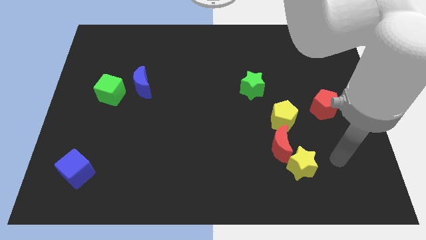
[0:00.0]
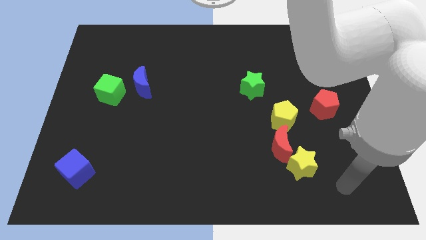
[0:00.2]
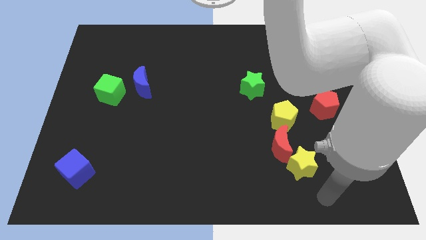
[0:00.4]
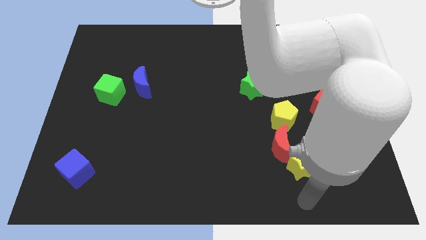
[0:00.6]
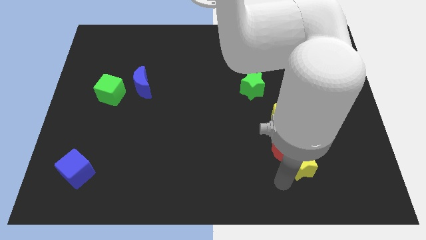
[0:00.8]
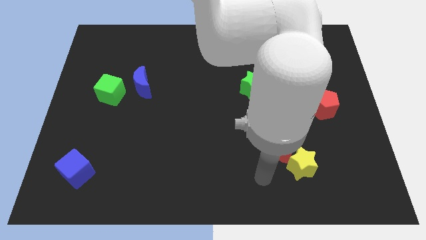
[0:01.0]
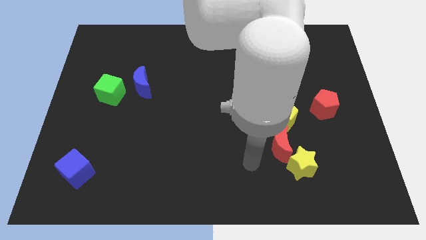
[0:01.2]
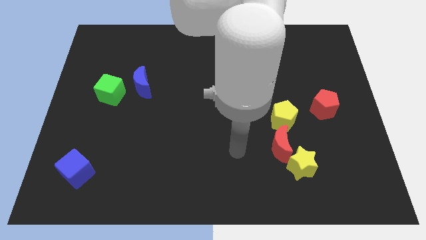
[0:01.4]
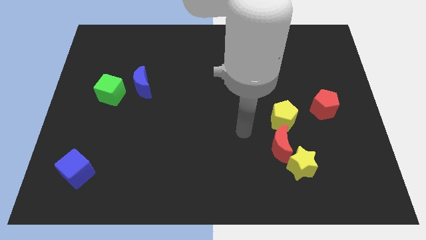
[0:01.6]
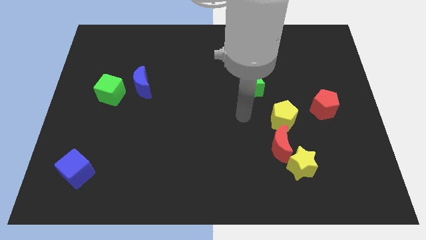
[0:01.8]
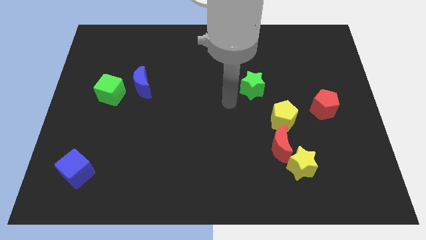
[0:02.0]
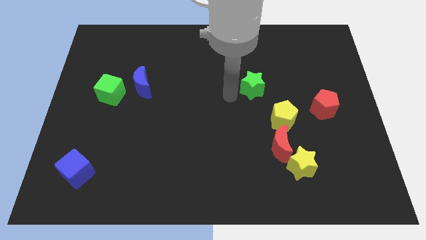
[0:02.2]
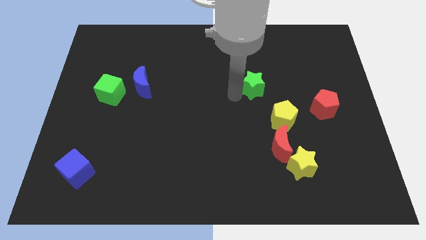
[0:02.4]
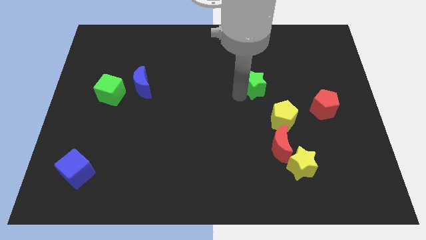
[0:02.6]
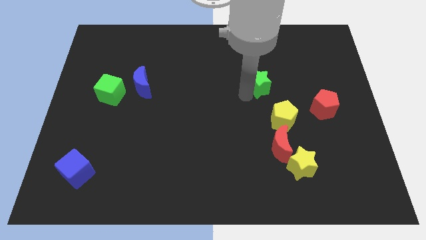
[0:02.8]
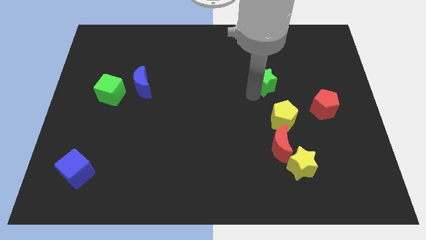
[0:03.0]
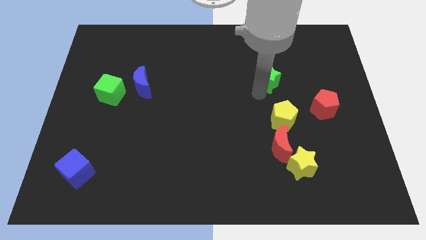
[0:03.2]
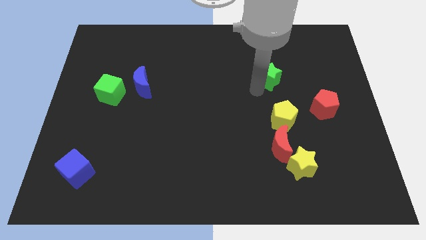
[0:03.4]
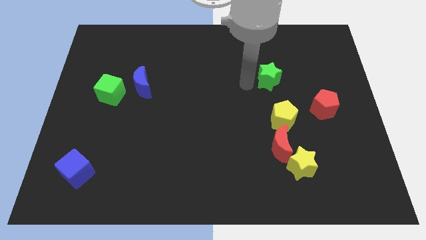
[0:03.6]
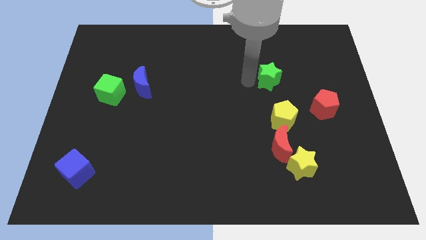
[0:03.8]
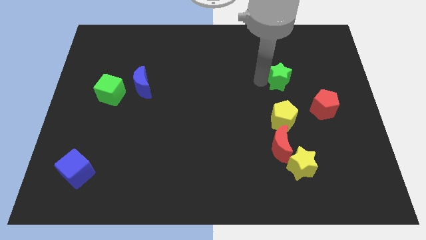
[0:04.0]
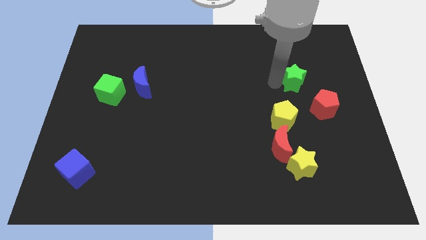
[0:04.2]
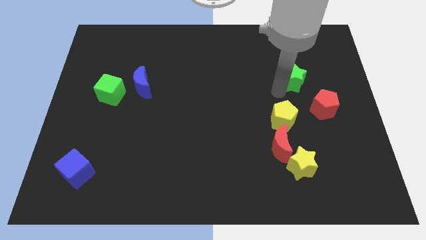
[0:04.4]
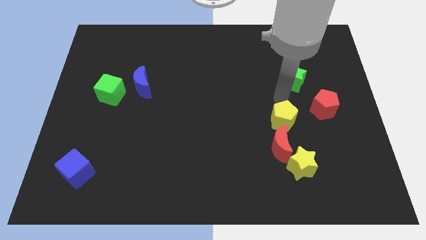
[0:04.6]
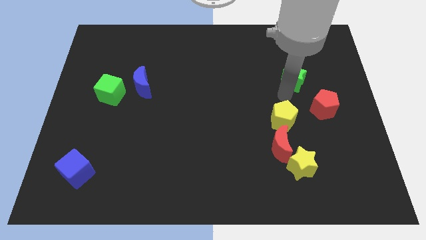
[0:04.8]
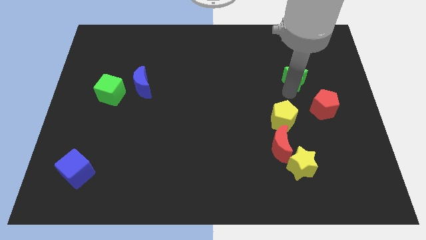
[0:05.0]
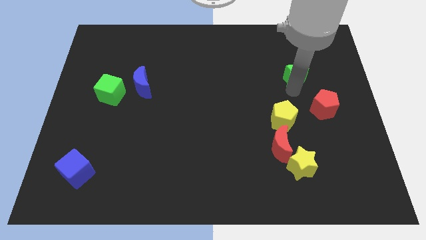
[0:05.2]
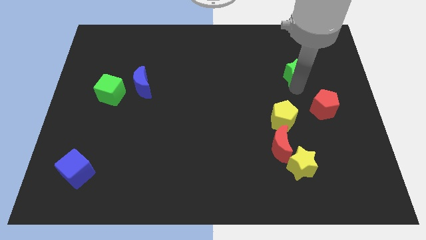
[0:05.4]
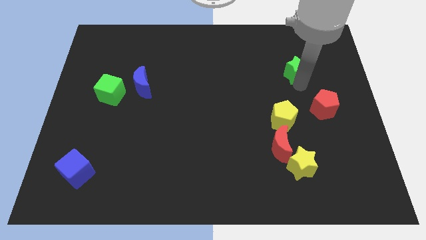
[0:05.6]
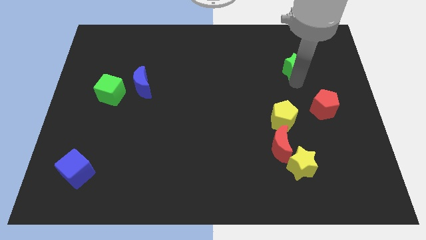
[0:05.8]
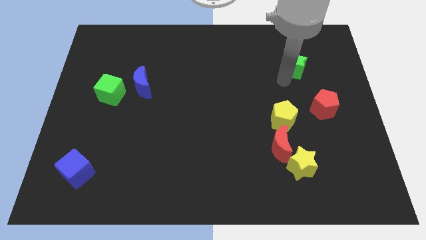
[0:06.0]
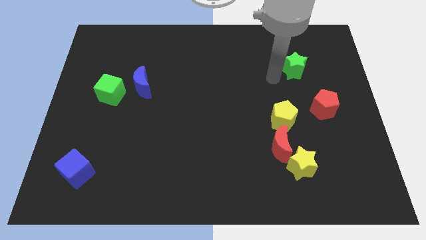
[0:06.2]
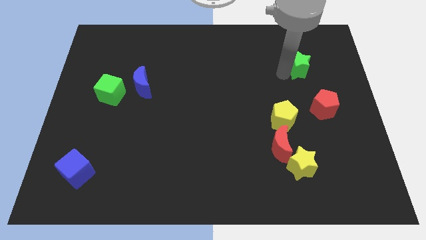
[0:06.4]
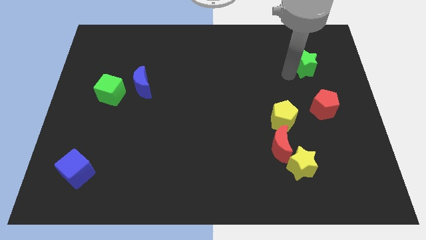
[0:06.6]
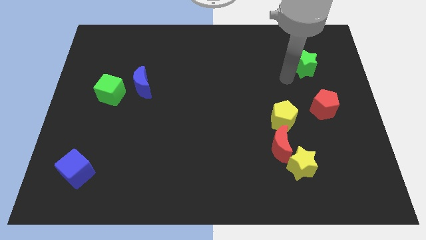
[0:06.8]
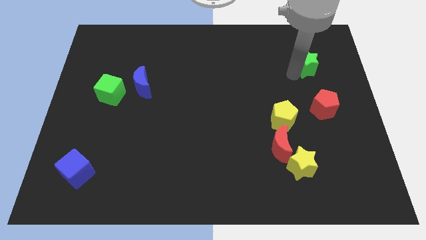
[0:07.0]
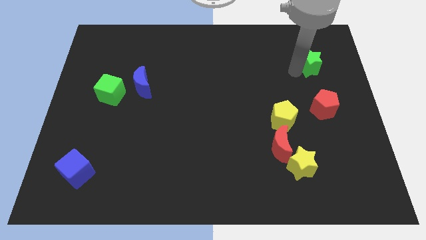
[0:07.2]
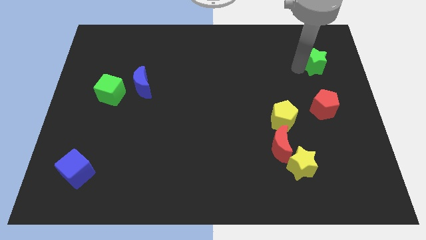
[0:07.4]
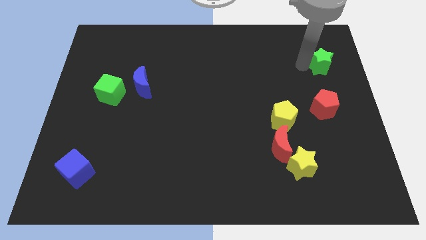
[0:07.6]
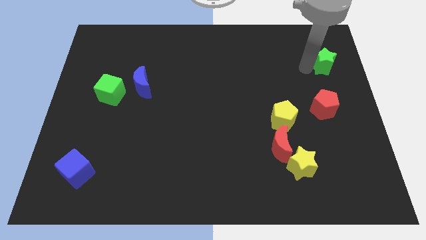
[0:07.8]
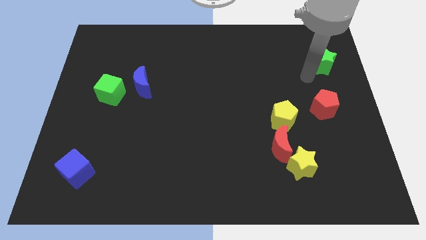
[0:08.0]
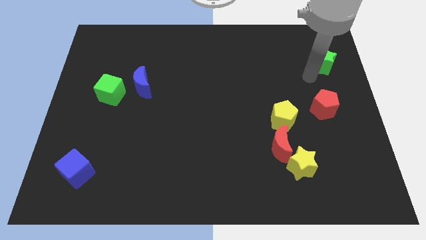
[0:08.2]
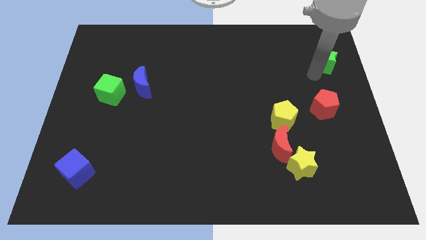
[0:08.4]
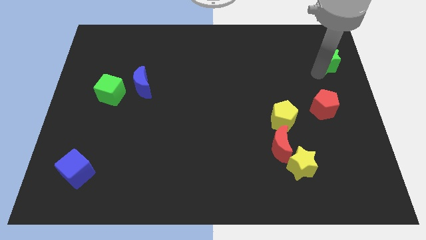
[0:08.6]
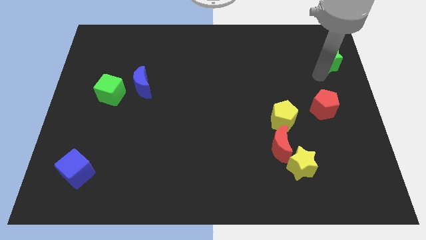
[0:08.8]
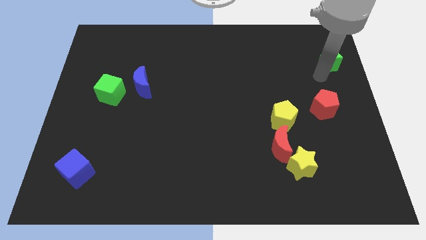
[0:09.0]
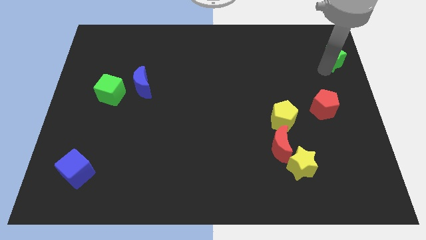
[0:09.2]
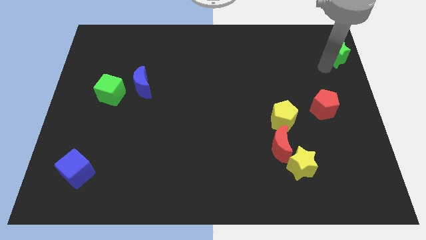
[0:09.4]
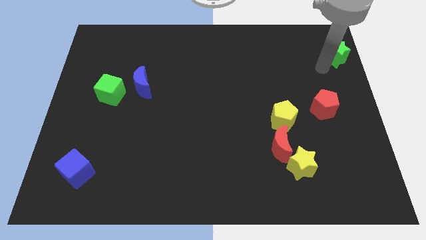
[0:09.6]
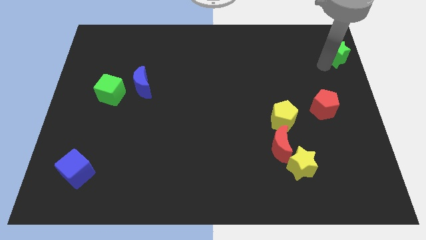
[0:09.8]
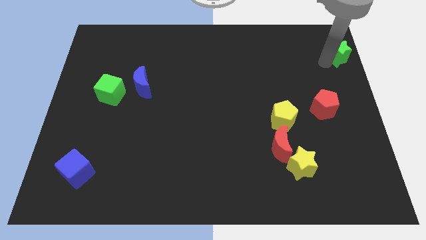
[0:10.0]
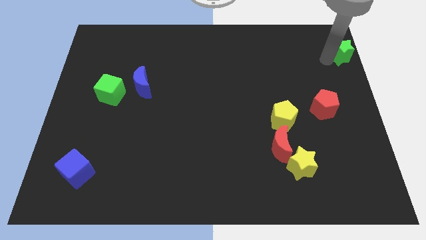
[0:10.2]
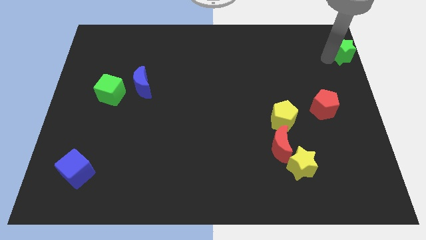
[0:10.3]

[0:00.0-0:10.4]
push the green star to the top right corner
